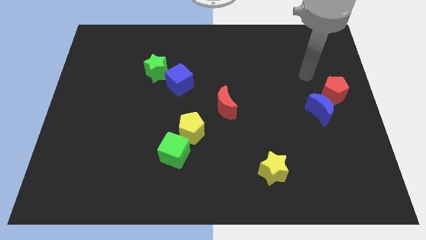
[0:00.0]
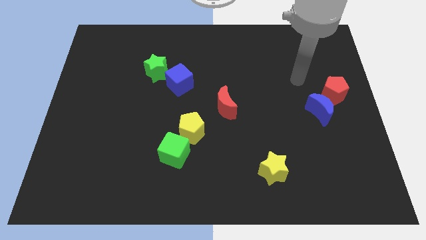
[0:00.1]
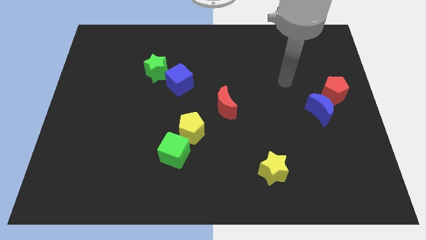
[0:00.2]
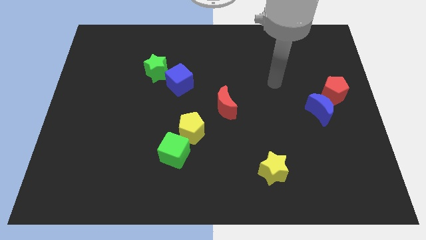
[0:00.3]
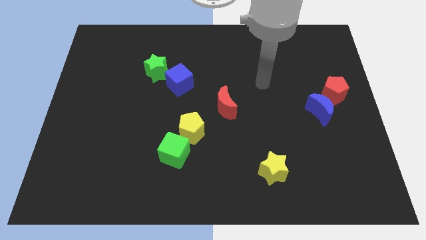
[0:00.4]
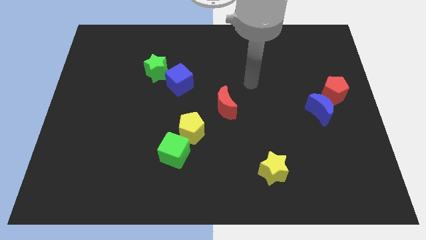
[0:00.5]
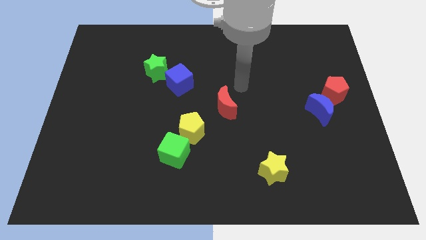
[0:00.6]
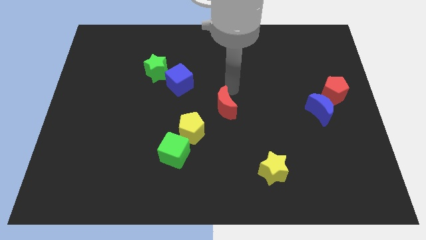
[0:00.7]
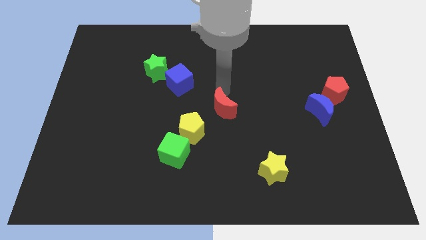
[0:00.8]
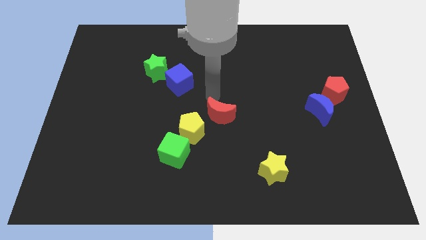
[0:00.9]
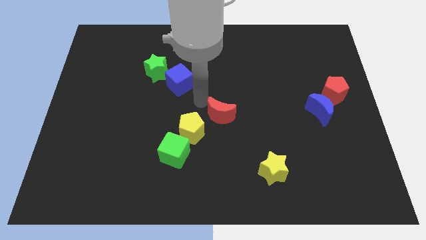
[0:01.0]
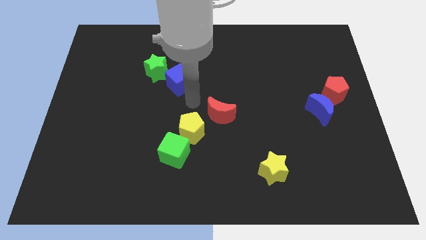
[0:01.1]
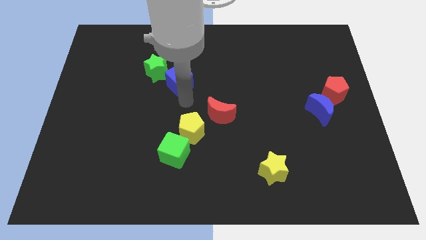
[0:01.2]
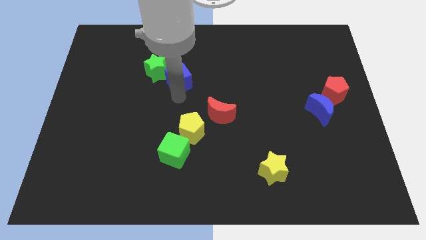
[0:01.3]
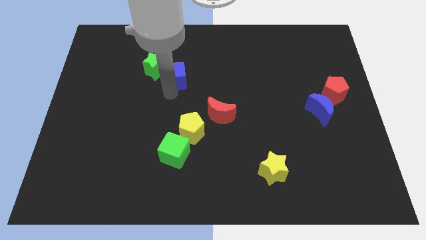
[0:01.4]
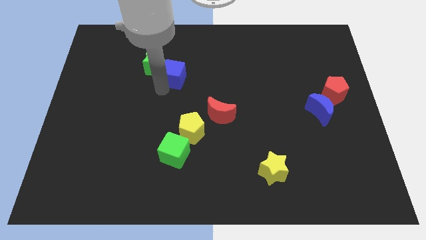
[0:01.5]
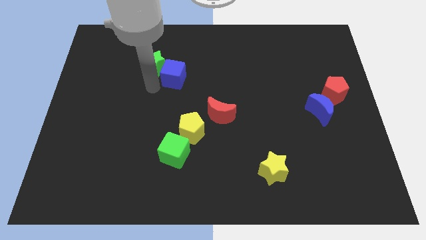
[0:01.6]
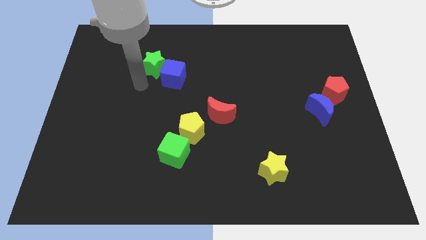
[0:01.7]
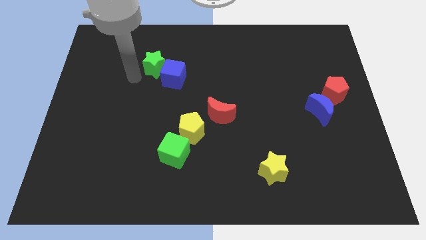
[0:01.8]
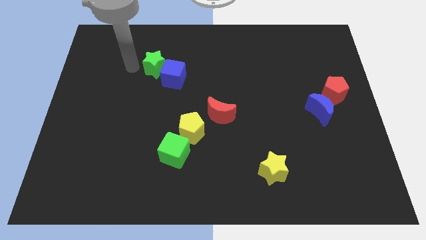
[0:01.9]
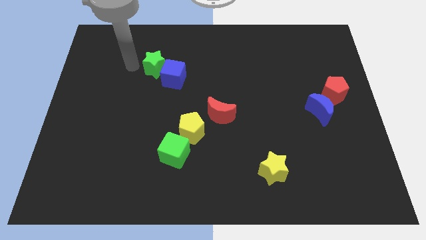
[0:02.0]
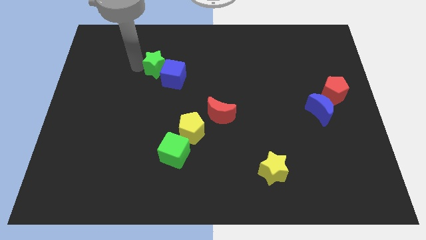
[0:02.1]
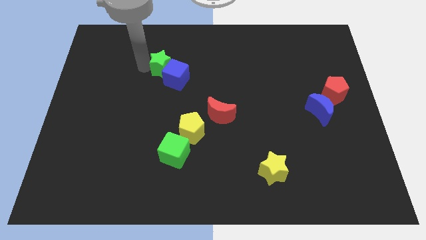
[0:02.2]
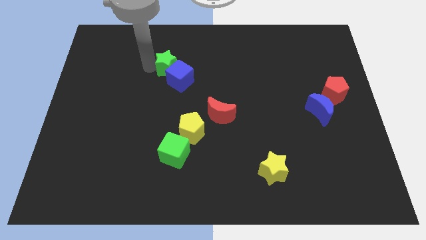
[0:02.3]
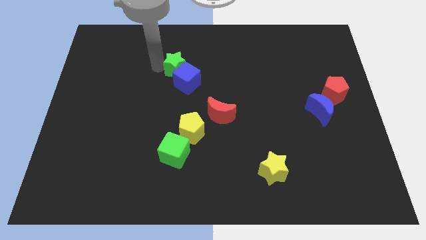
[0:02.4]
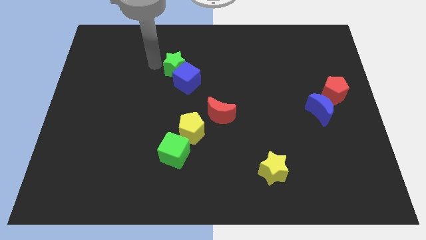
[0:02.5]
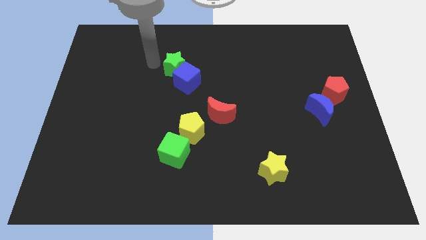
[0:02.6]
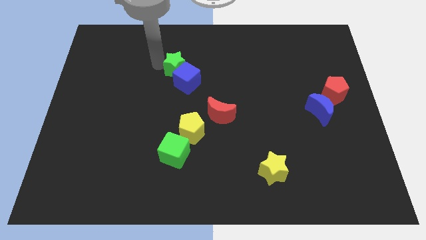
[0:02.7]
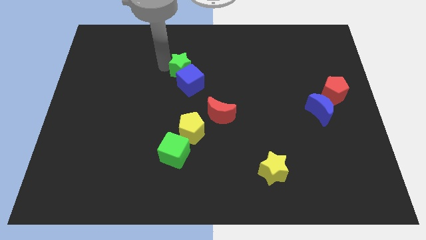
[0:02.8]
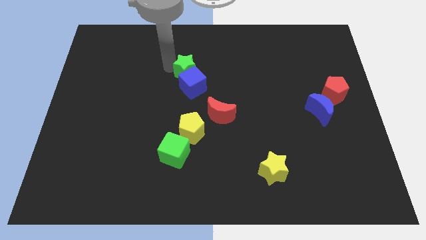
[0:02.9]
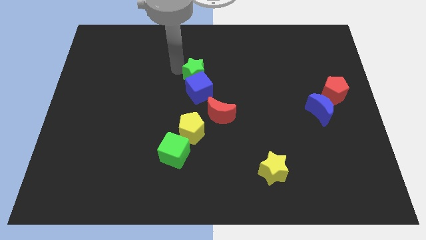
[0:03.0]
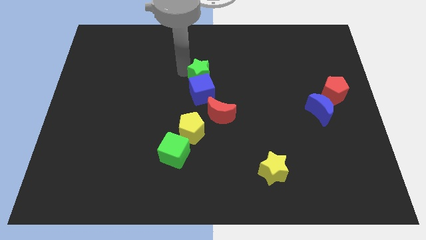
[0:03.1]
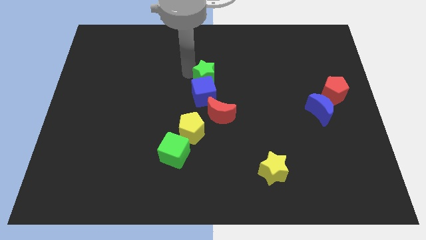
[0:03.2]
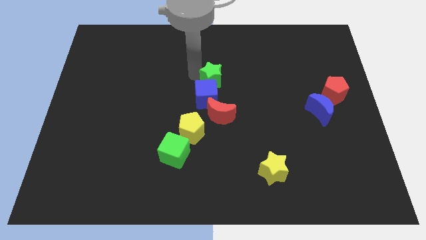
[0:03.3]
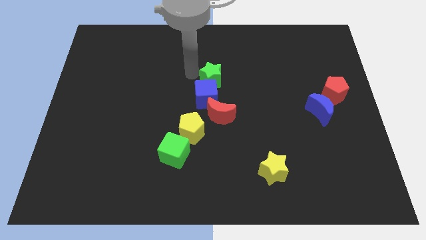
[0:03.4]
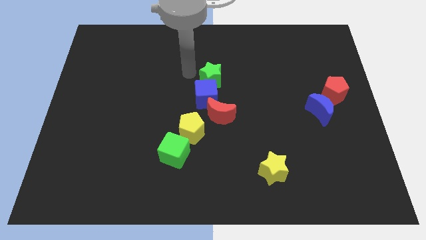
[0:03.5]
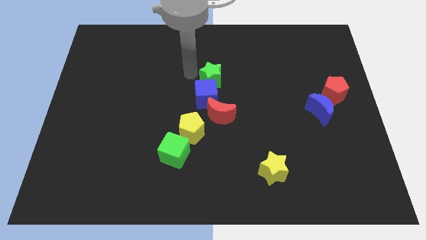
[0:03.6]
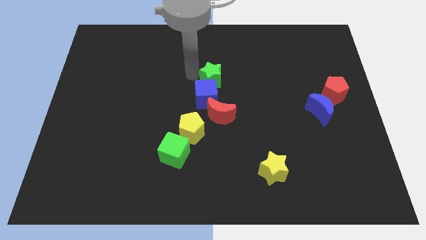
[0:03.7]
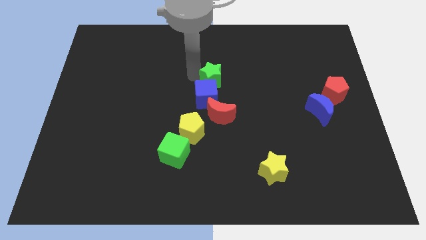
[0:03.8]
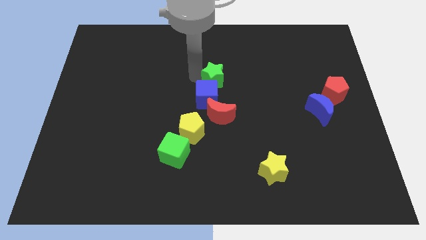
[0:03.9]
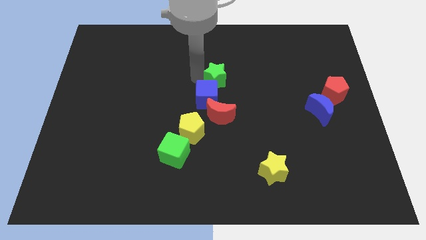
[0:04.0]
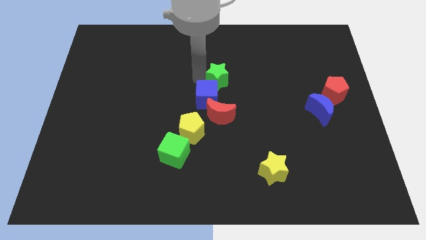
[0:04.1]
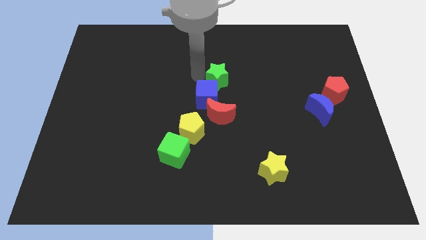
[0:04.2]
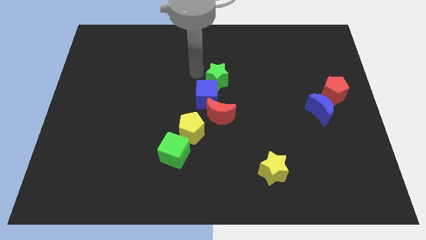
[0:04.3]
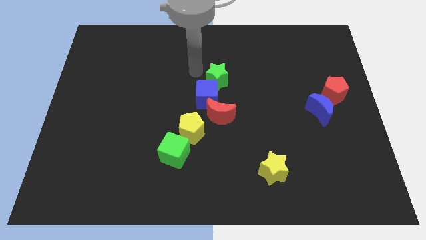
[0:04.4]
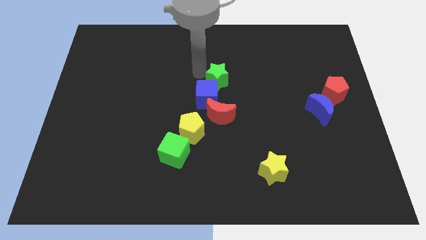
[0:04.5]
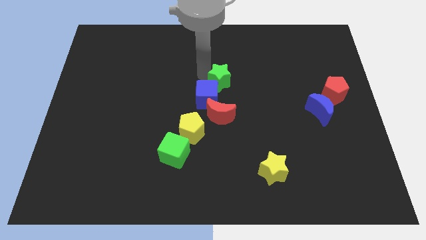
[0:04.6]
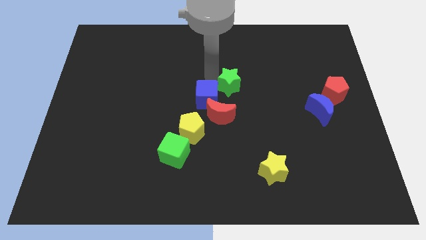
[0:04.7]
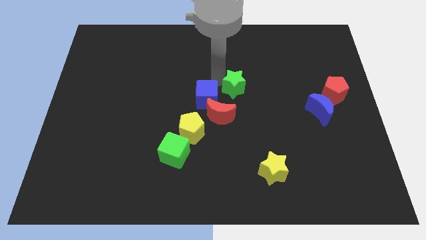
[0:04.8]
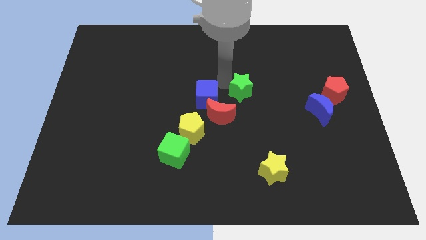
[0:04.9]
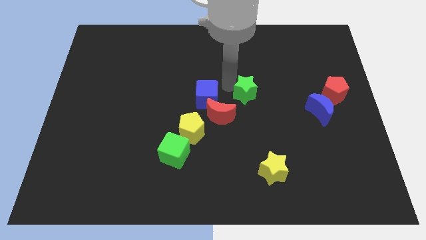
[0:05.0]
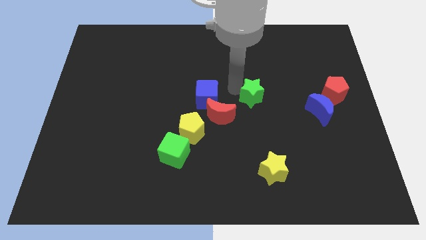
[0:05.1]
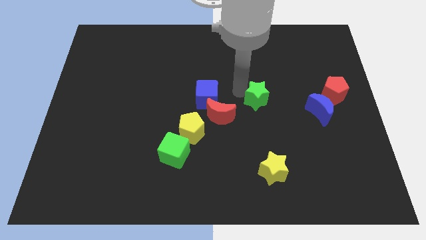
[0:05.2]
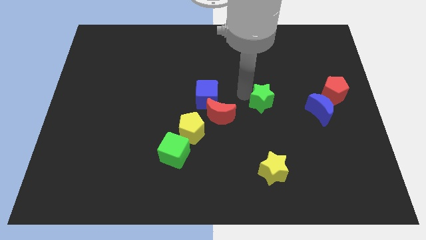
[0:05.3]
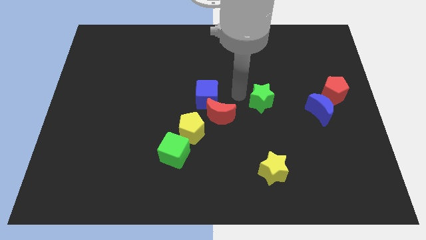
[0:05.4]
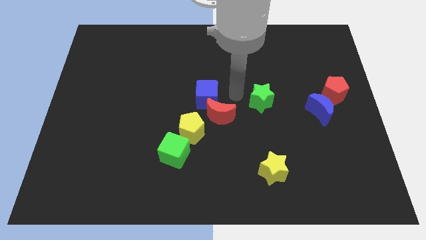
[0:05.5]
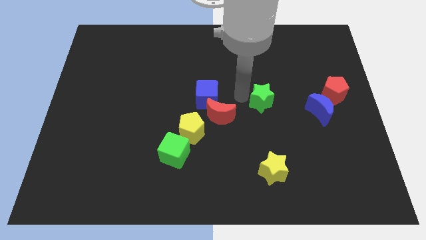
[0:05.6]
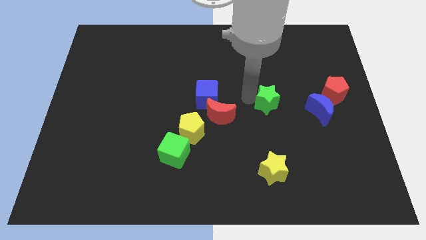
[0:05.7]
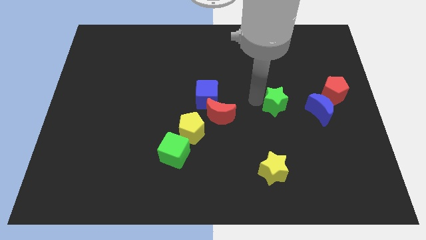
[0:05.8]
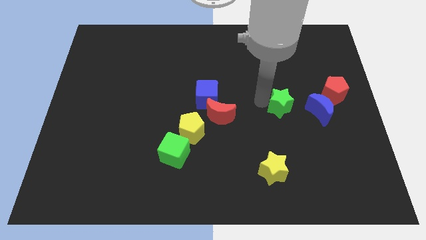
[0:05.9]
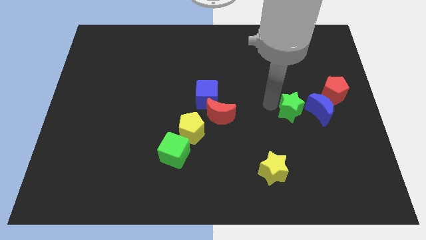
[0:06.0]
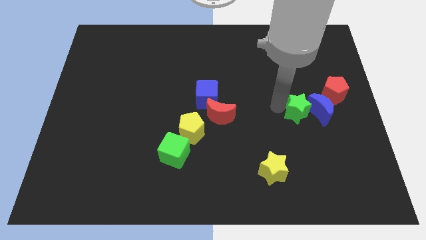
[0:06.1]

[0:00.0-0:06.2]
slide the green star next to the blue moon

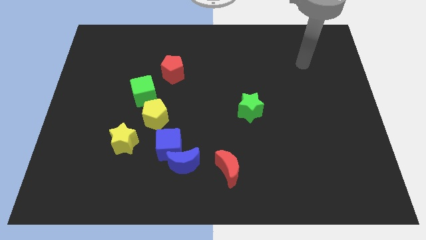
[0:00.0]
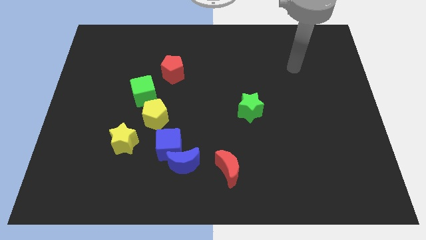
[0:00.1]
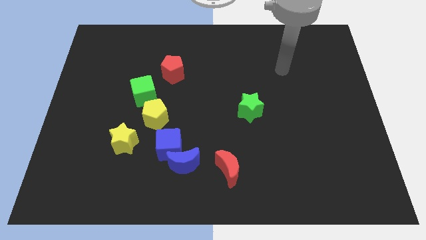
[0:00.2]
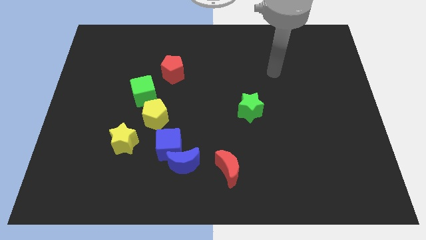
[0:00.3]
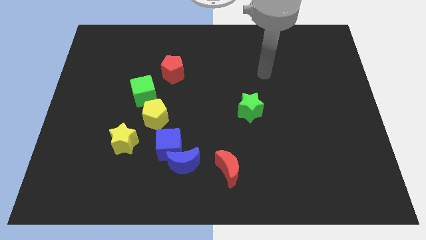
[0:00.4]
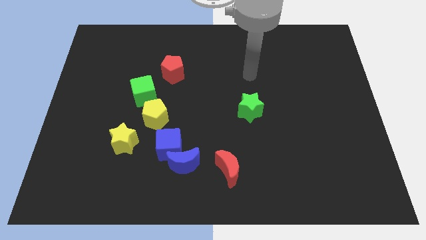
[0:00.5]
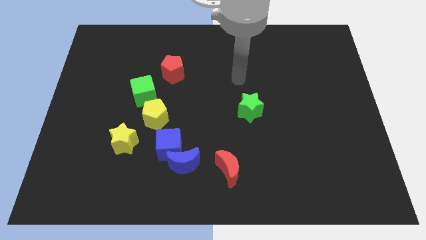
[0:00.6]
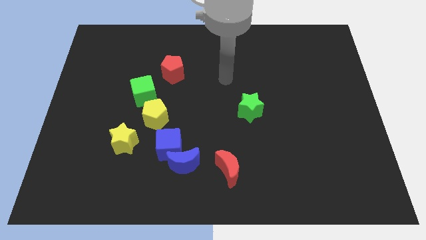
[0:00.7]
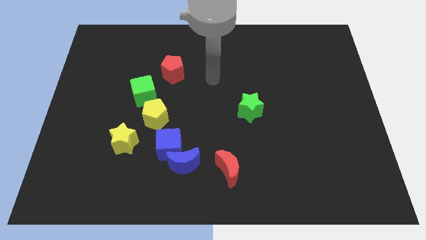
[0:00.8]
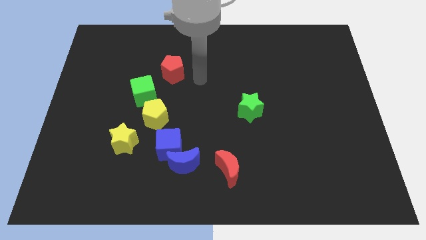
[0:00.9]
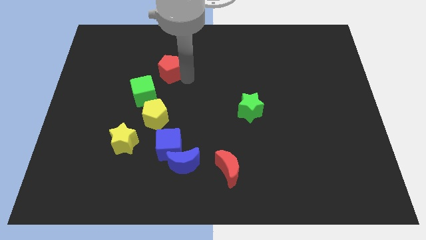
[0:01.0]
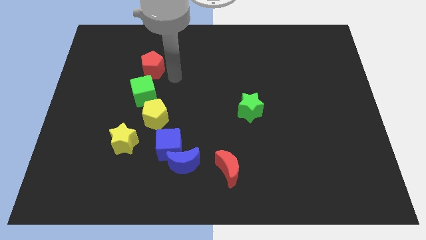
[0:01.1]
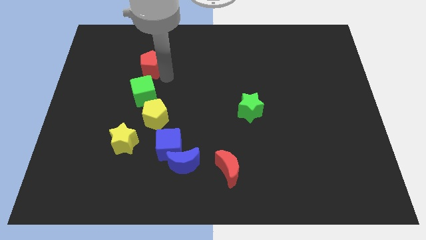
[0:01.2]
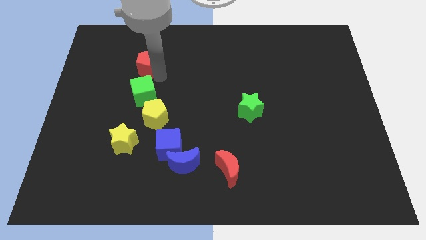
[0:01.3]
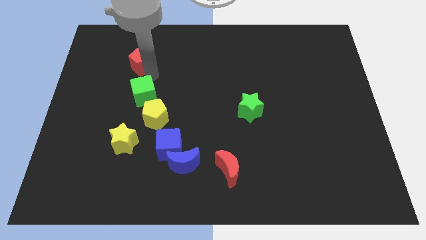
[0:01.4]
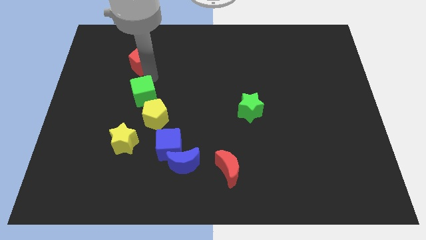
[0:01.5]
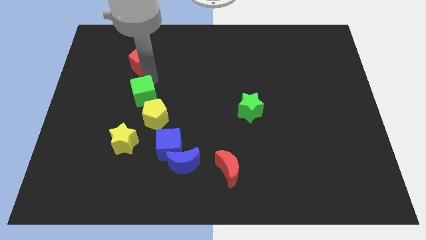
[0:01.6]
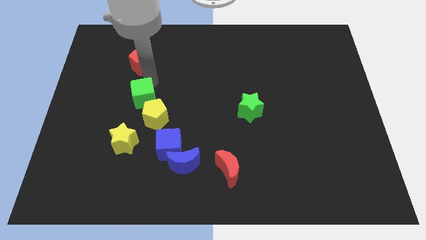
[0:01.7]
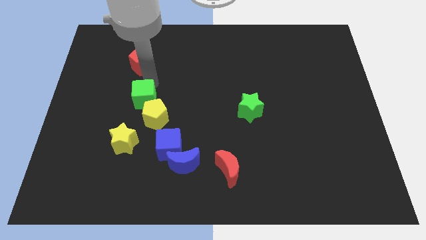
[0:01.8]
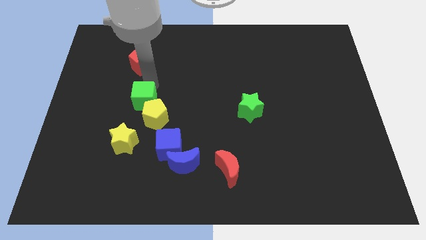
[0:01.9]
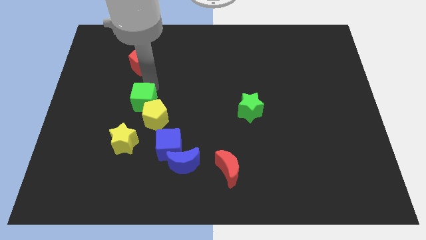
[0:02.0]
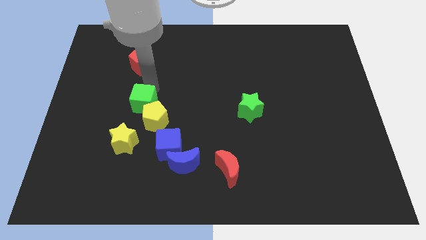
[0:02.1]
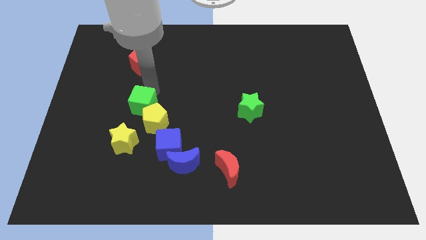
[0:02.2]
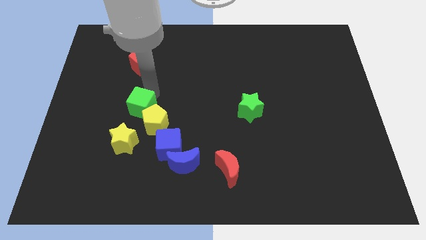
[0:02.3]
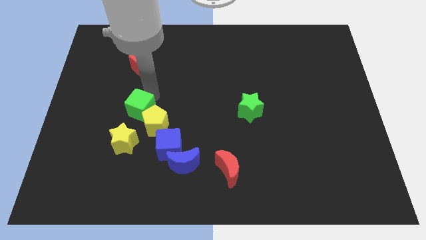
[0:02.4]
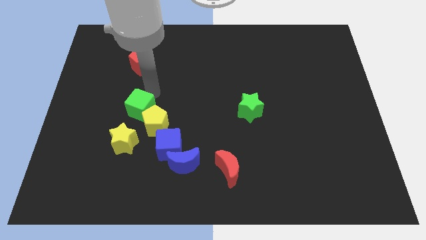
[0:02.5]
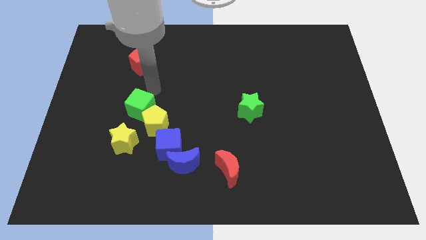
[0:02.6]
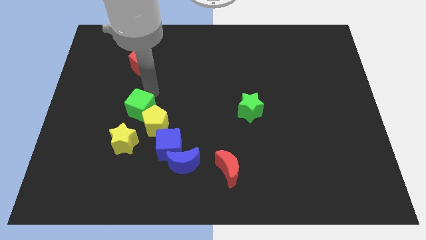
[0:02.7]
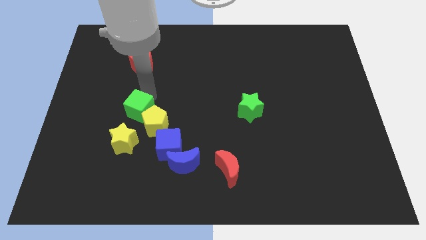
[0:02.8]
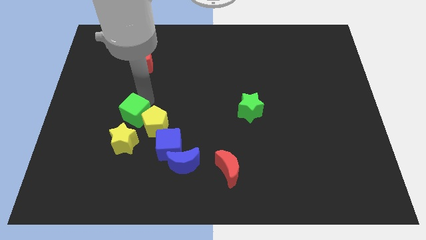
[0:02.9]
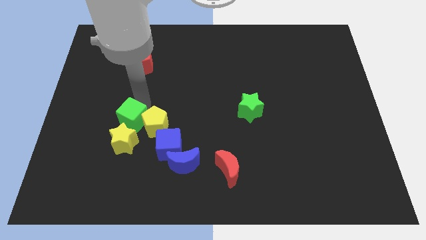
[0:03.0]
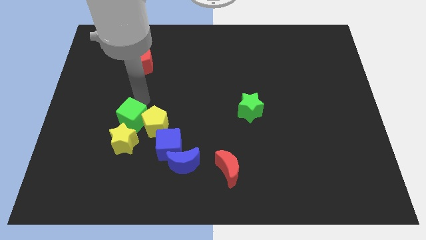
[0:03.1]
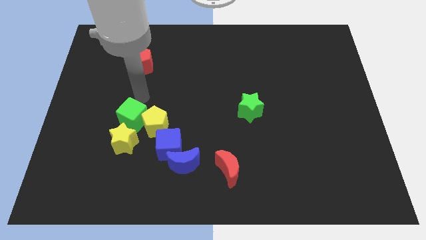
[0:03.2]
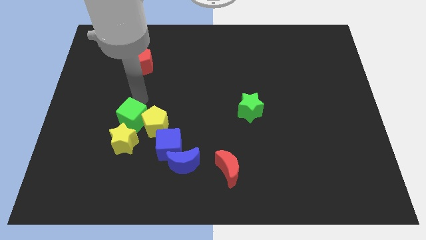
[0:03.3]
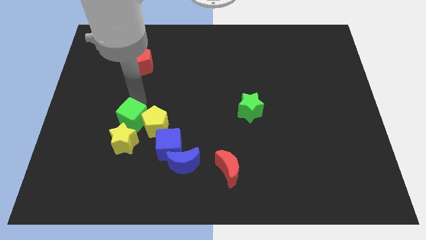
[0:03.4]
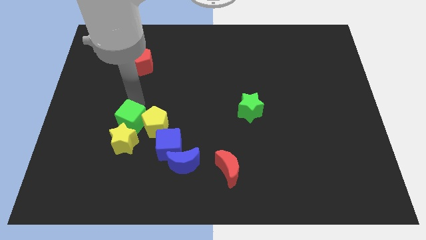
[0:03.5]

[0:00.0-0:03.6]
put the green cube to the yellow star
